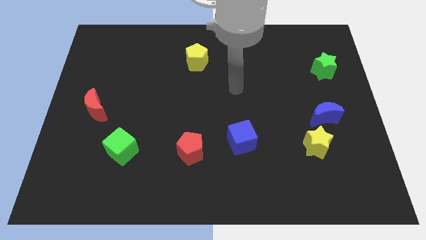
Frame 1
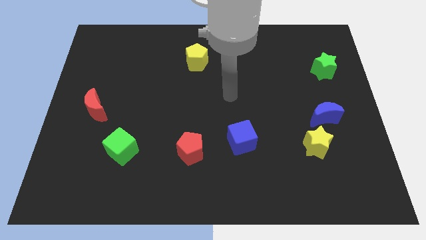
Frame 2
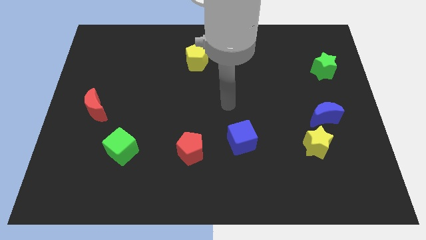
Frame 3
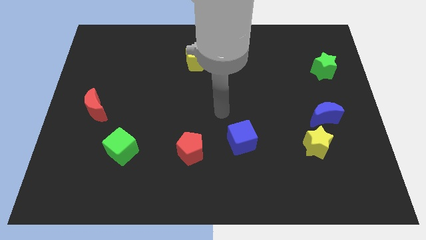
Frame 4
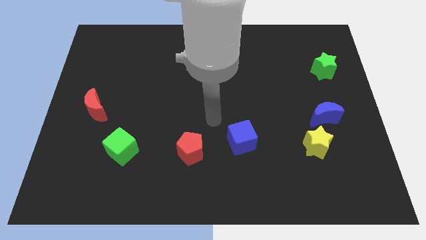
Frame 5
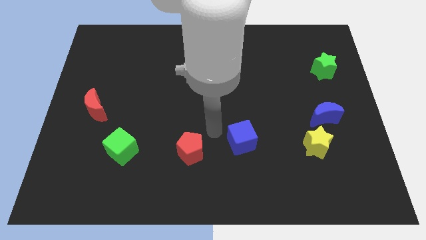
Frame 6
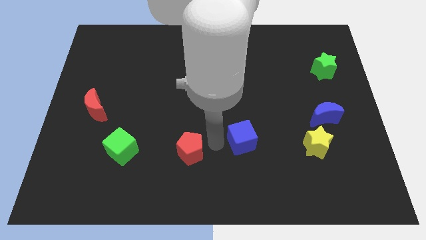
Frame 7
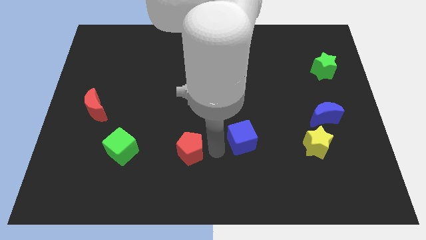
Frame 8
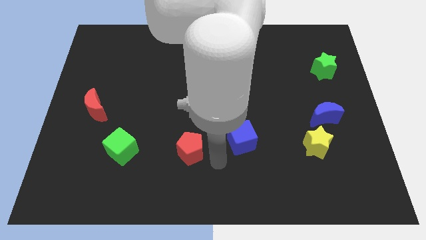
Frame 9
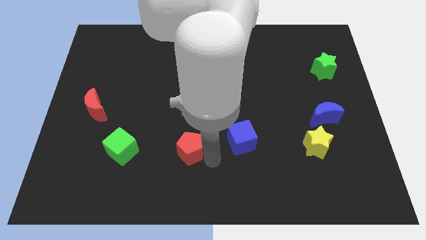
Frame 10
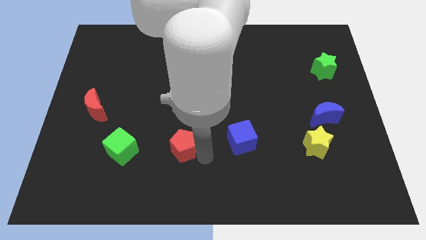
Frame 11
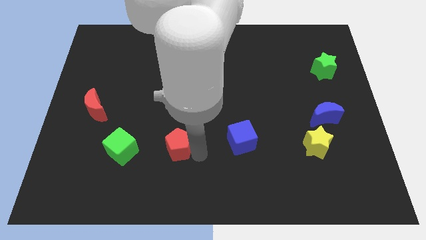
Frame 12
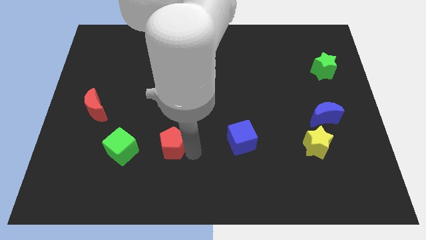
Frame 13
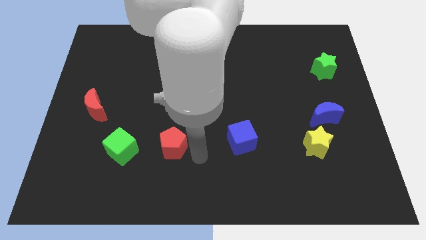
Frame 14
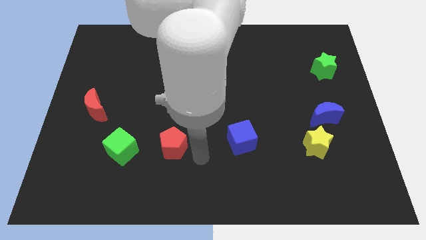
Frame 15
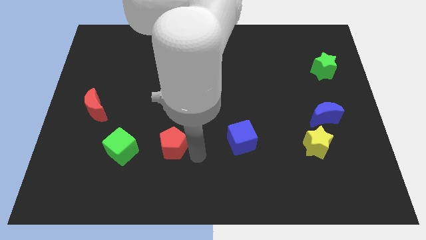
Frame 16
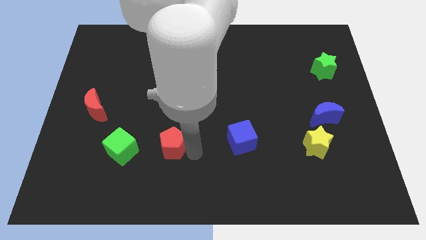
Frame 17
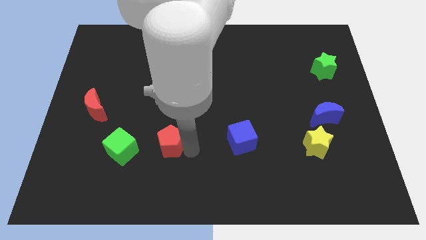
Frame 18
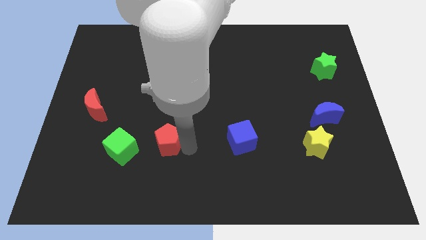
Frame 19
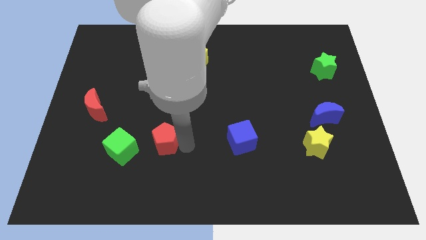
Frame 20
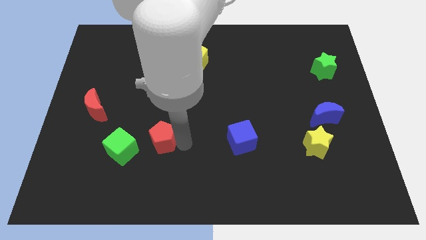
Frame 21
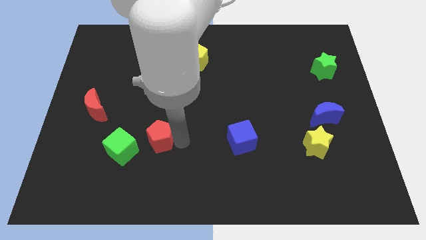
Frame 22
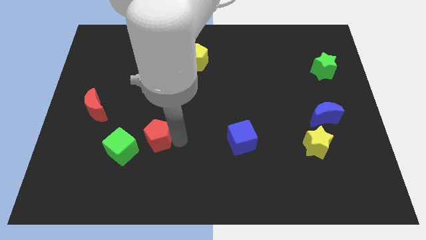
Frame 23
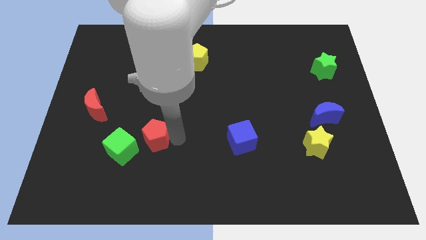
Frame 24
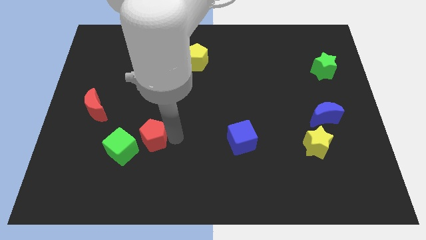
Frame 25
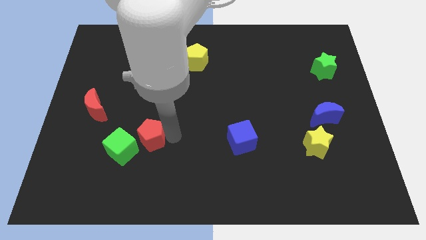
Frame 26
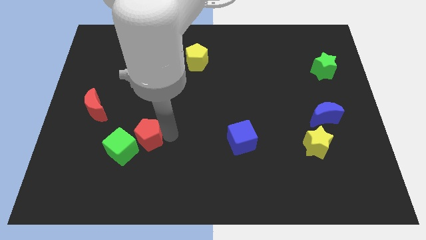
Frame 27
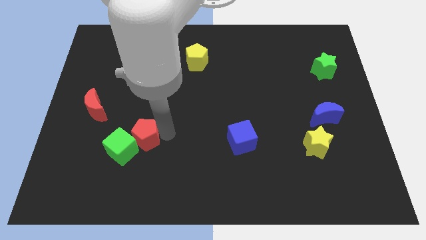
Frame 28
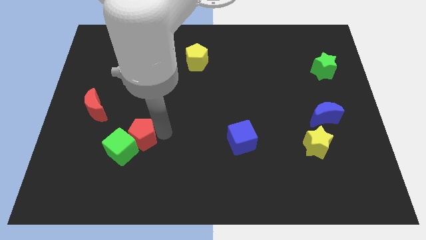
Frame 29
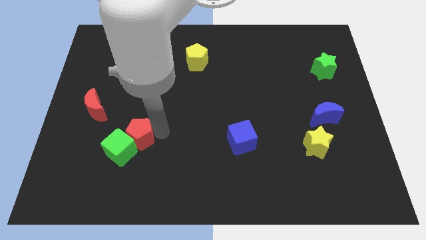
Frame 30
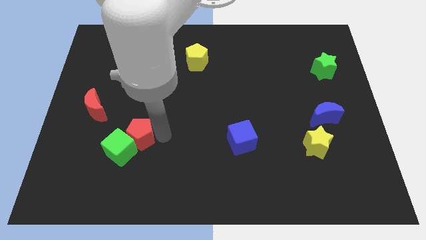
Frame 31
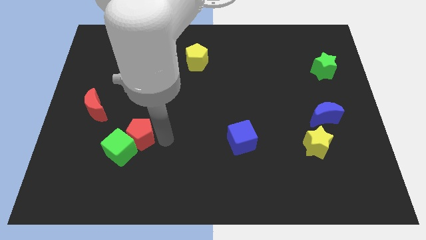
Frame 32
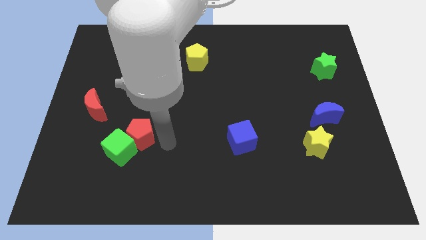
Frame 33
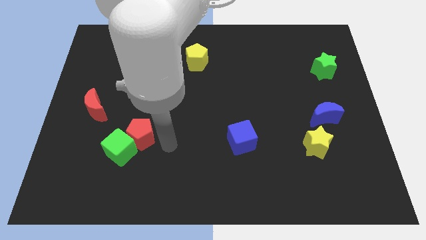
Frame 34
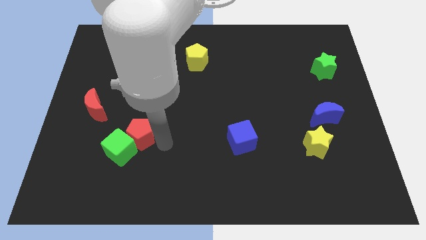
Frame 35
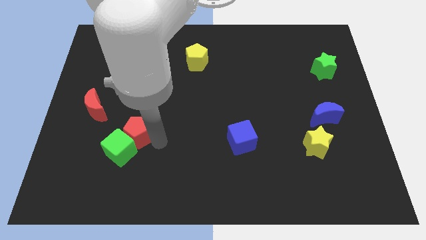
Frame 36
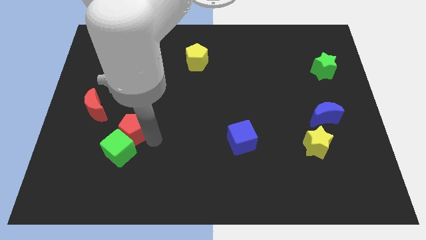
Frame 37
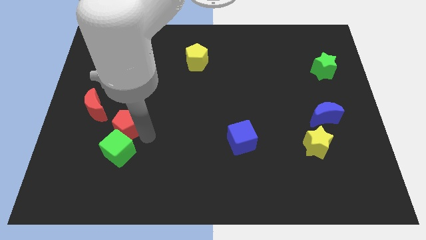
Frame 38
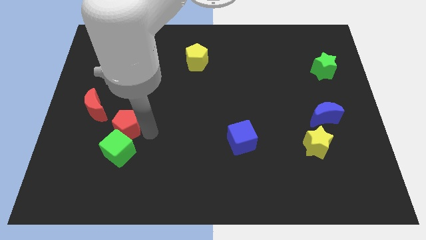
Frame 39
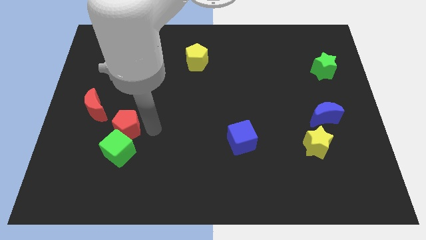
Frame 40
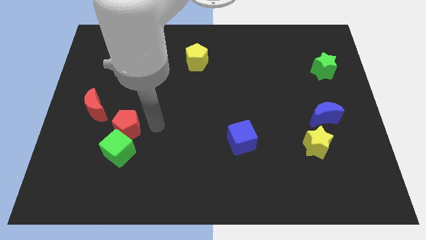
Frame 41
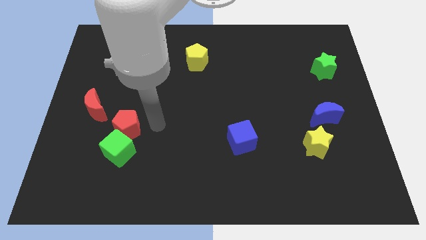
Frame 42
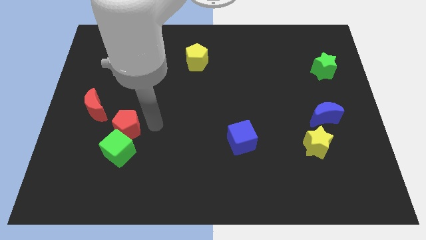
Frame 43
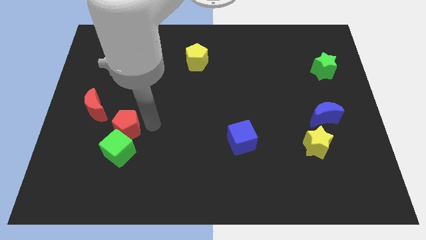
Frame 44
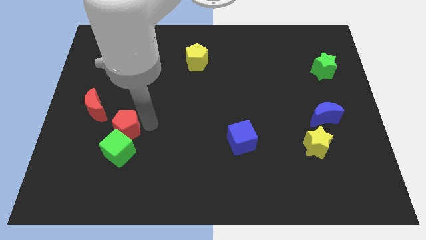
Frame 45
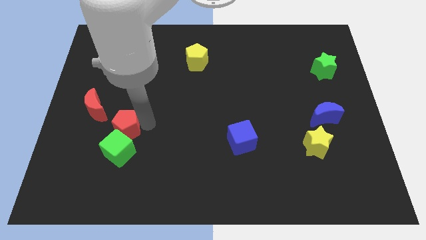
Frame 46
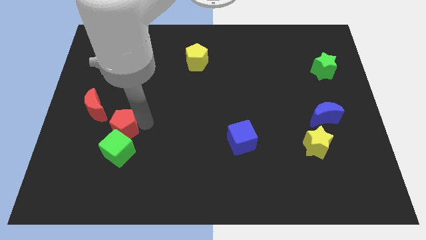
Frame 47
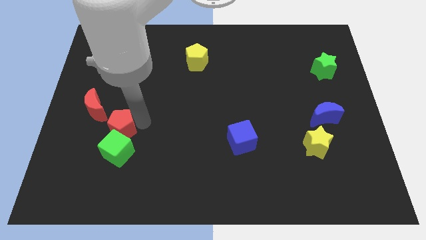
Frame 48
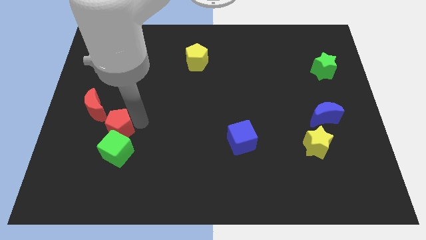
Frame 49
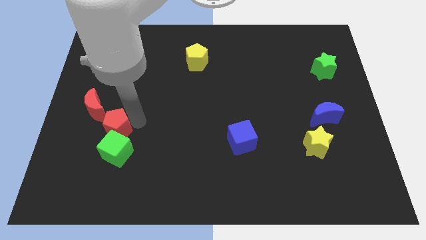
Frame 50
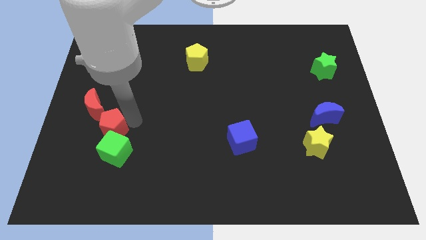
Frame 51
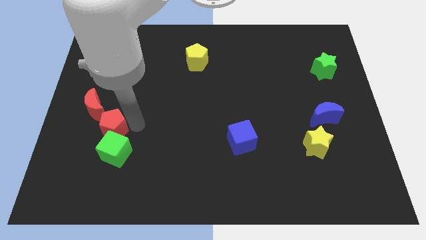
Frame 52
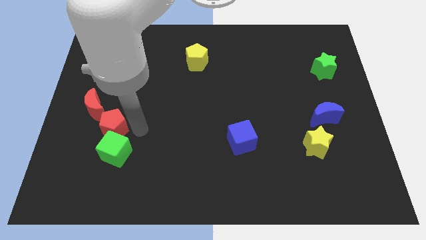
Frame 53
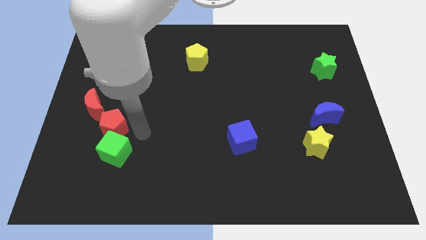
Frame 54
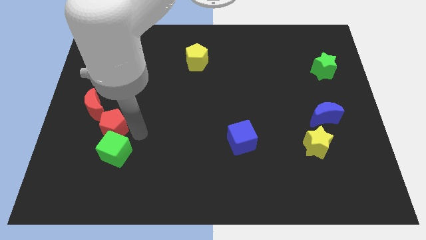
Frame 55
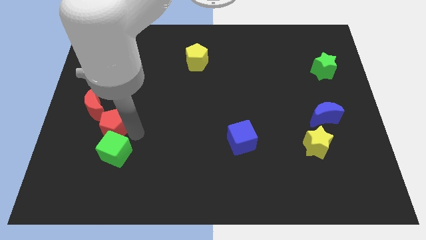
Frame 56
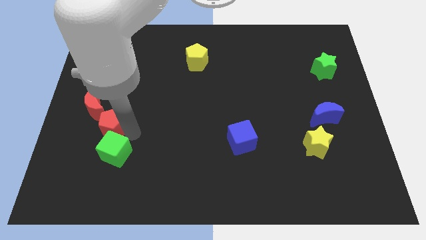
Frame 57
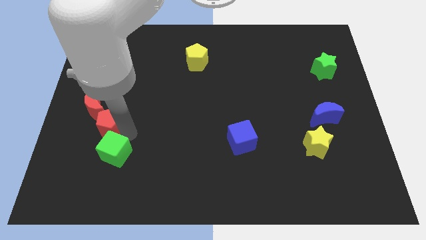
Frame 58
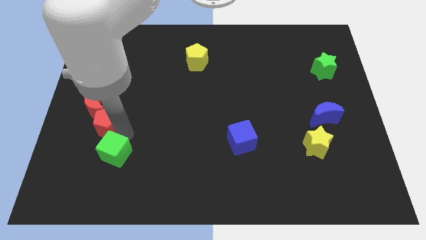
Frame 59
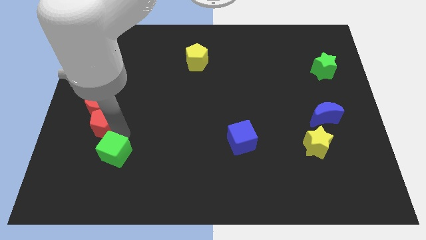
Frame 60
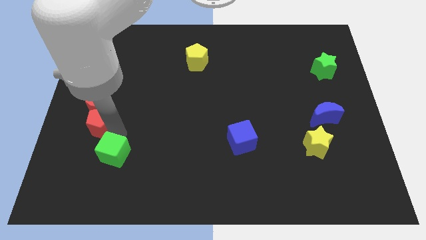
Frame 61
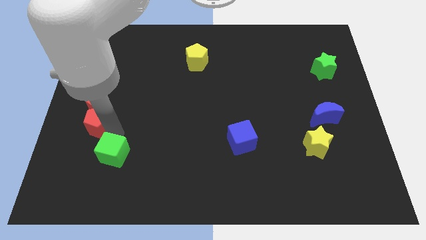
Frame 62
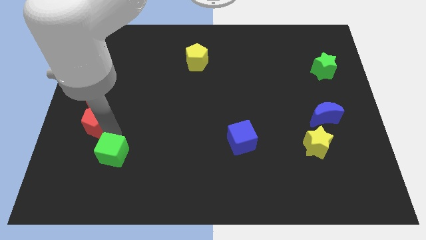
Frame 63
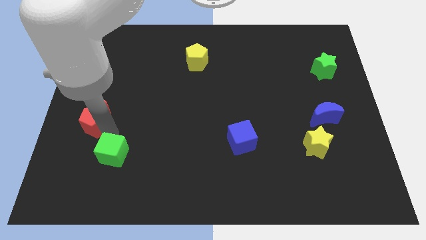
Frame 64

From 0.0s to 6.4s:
slide the red pentagon to the center left
